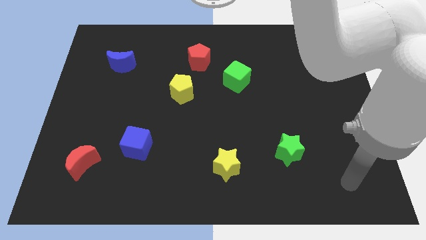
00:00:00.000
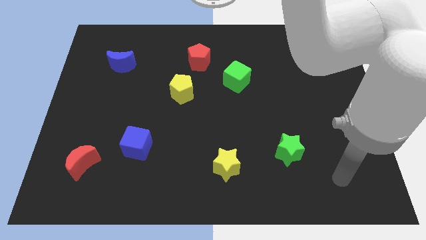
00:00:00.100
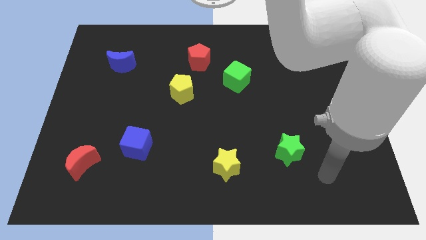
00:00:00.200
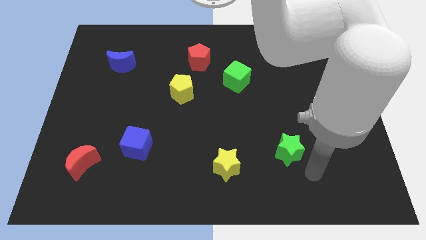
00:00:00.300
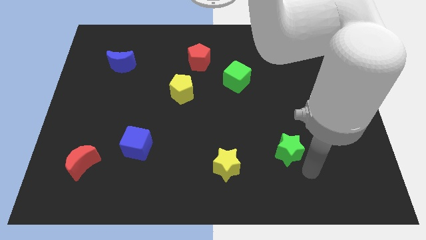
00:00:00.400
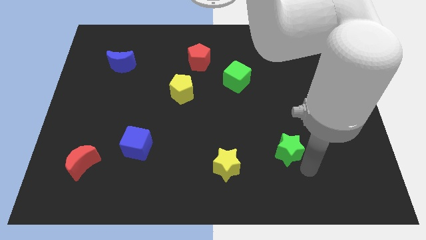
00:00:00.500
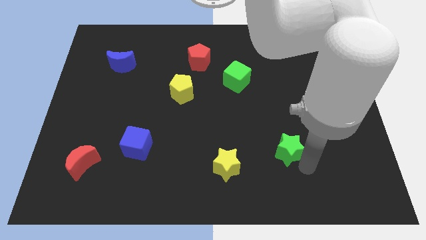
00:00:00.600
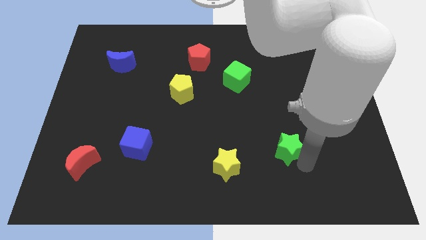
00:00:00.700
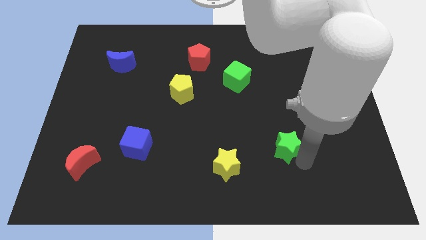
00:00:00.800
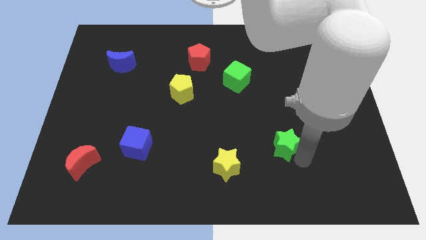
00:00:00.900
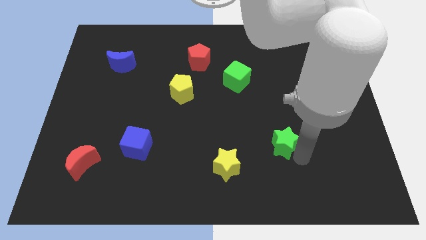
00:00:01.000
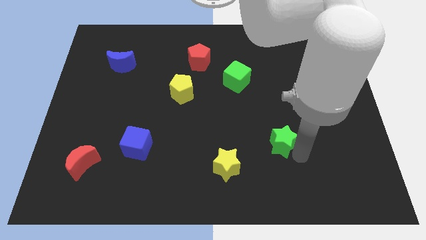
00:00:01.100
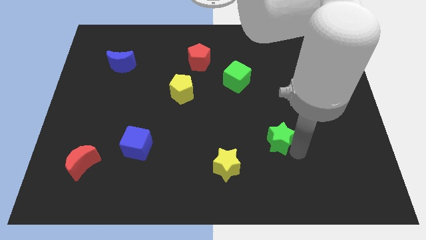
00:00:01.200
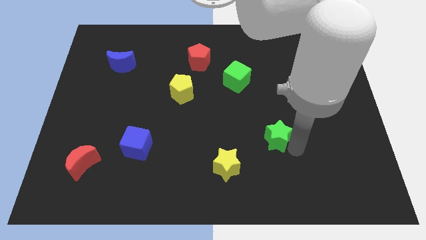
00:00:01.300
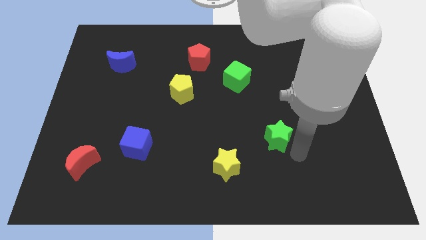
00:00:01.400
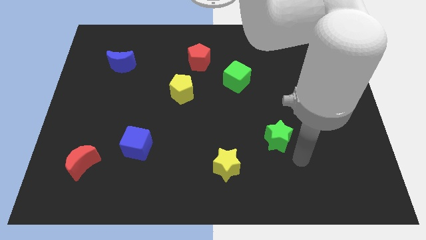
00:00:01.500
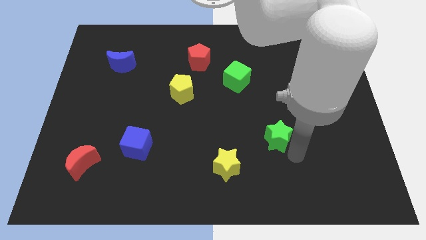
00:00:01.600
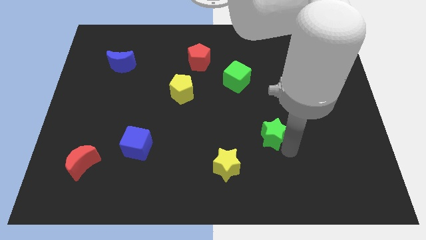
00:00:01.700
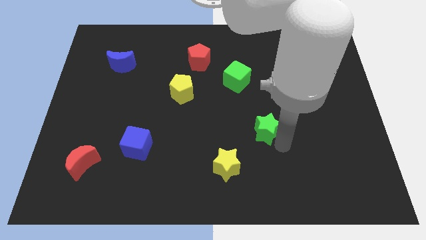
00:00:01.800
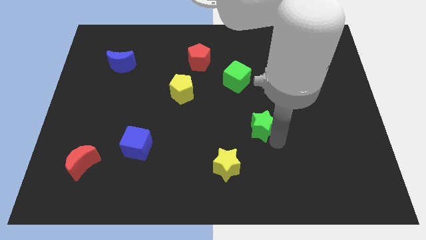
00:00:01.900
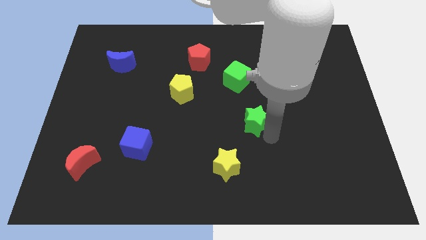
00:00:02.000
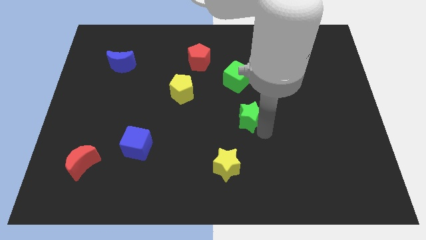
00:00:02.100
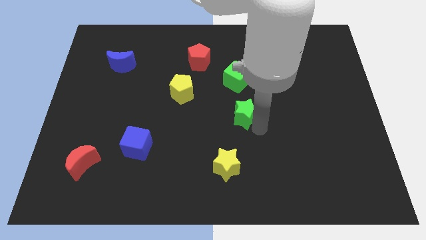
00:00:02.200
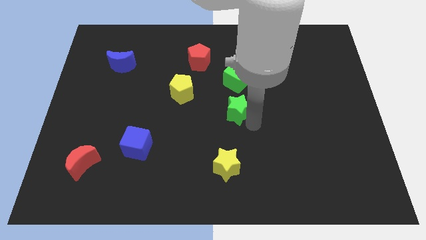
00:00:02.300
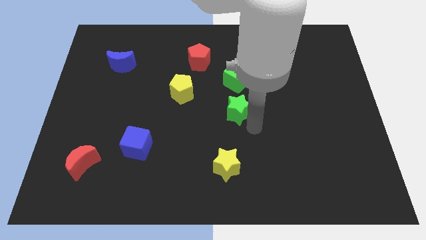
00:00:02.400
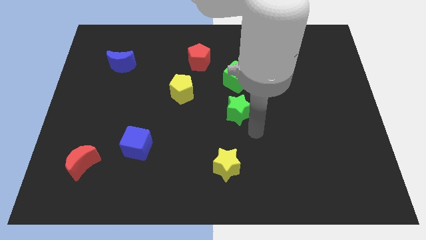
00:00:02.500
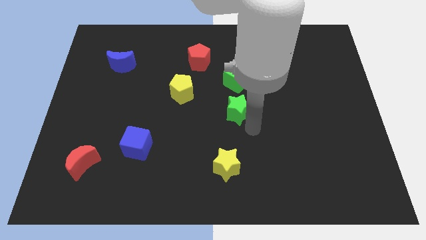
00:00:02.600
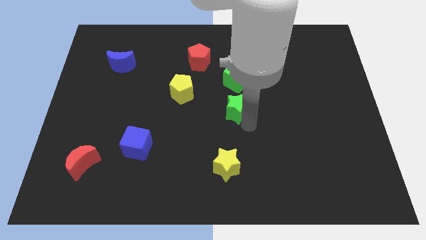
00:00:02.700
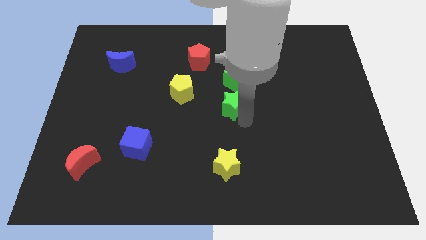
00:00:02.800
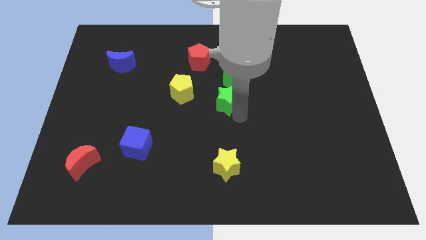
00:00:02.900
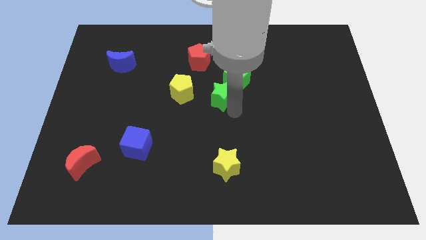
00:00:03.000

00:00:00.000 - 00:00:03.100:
push the green star diagonally up and left

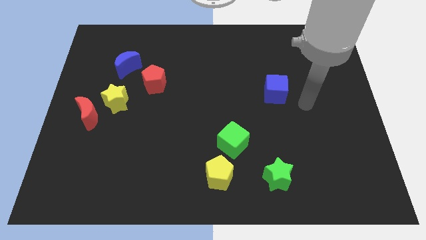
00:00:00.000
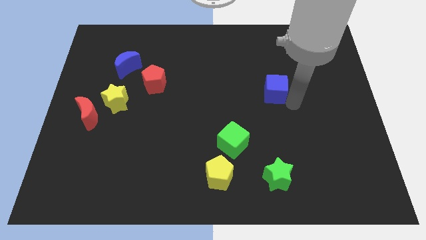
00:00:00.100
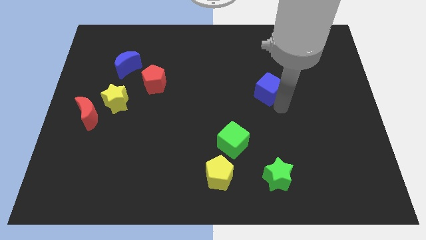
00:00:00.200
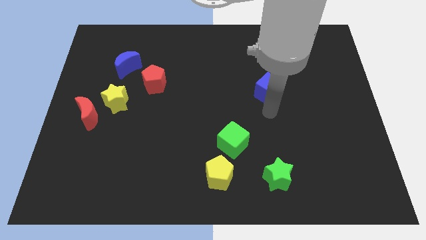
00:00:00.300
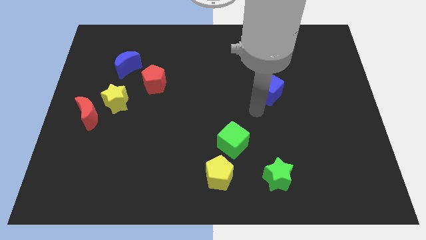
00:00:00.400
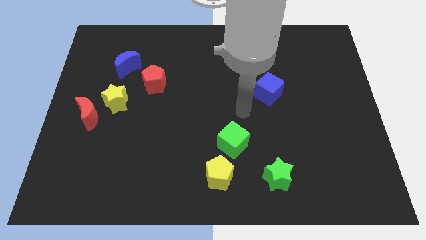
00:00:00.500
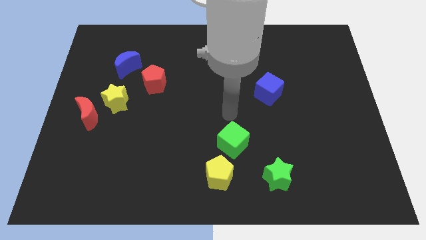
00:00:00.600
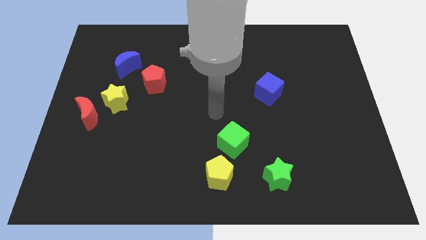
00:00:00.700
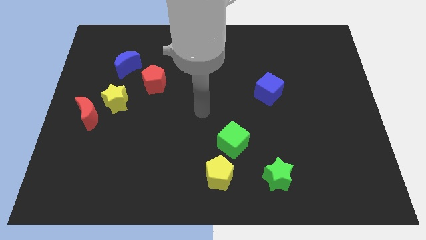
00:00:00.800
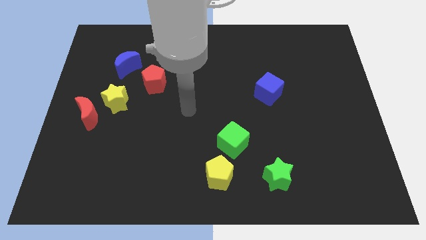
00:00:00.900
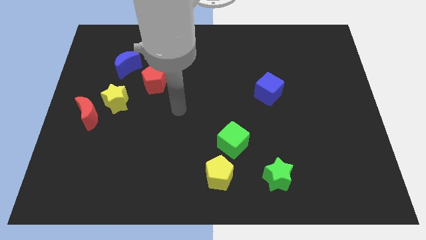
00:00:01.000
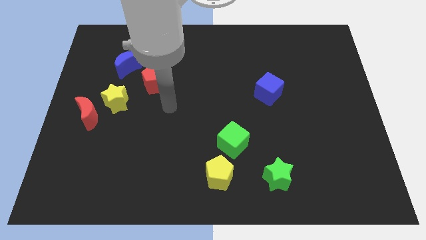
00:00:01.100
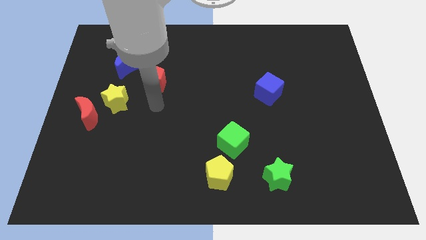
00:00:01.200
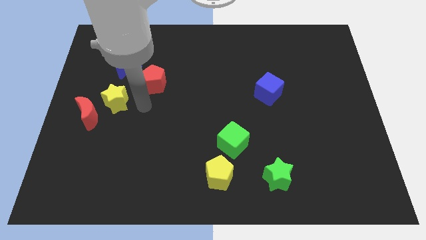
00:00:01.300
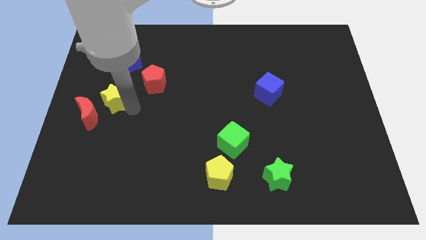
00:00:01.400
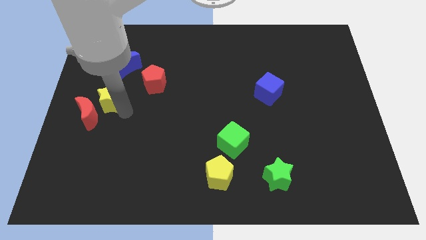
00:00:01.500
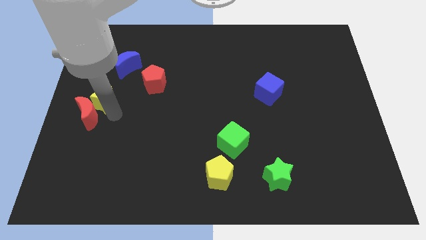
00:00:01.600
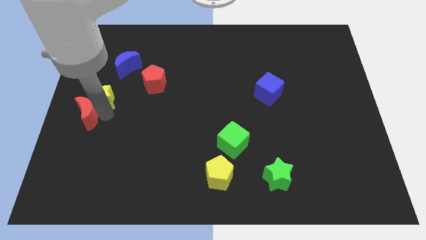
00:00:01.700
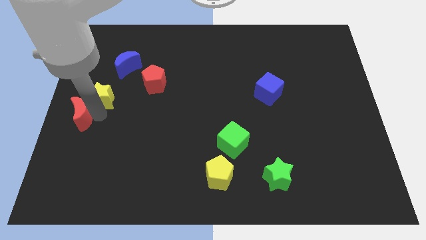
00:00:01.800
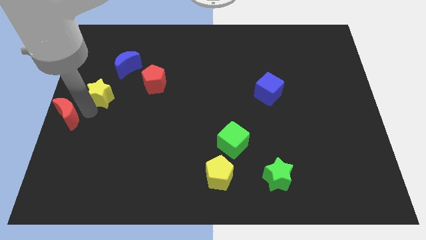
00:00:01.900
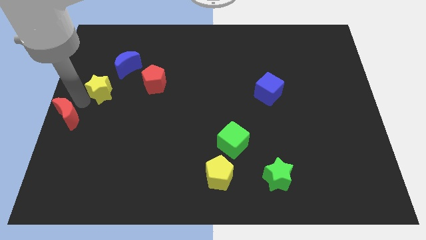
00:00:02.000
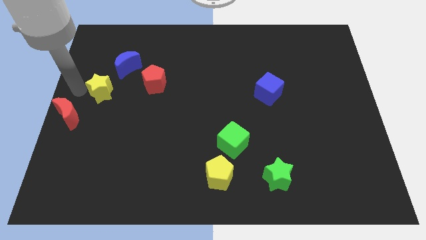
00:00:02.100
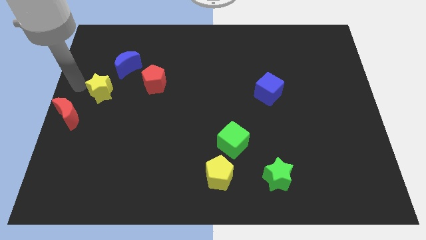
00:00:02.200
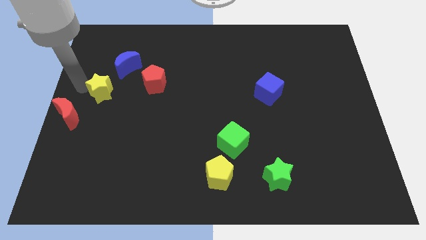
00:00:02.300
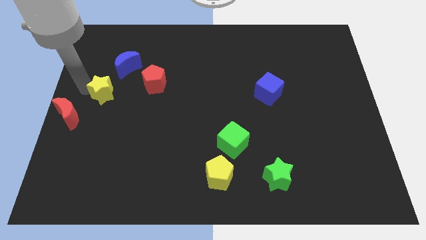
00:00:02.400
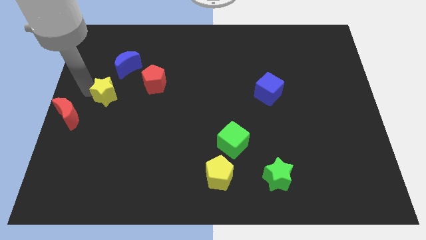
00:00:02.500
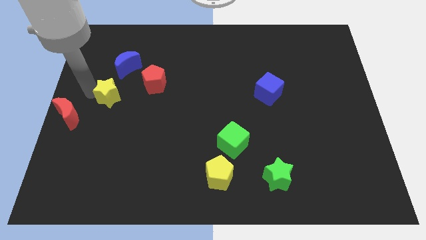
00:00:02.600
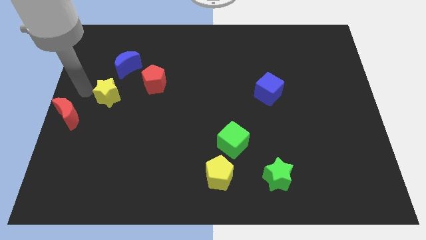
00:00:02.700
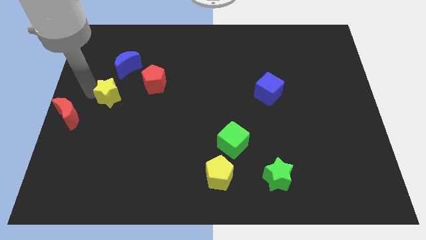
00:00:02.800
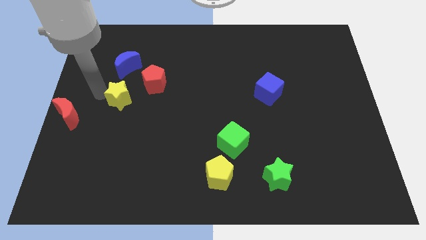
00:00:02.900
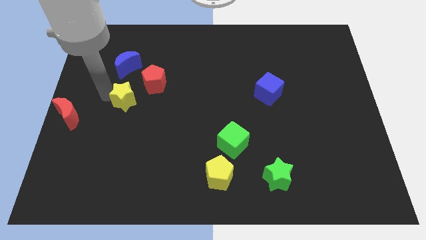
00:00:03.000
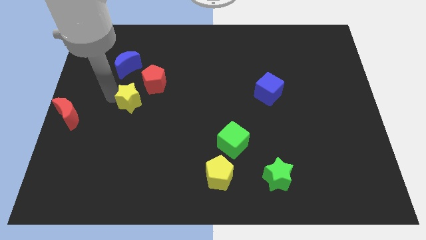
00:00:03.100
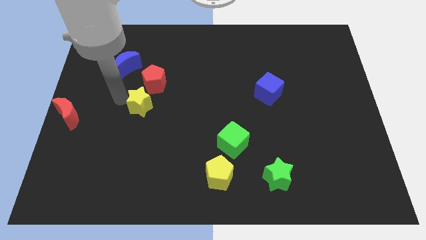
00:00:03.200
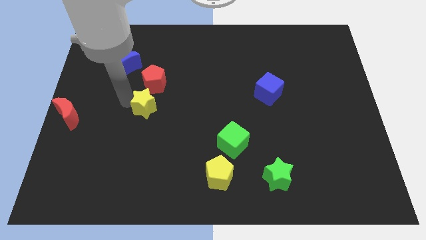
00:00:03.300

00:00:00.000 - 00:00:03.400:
slightly push the yellow star right

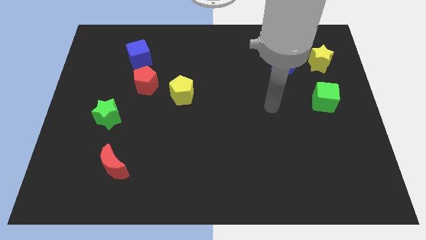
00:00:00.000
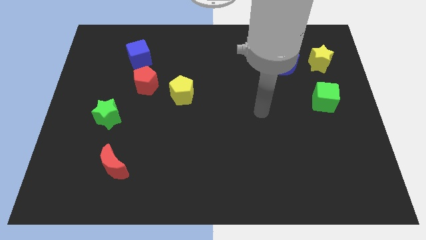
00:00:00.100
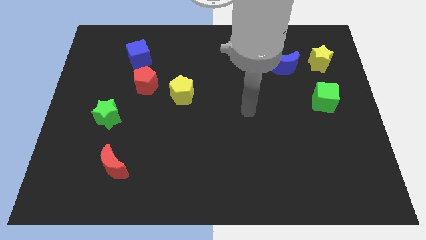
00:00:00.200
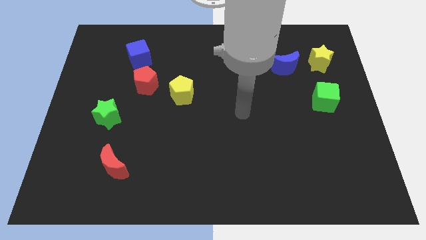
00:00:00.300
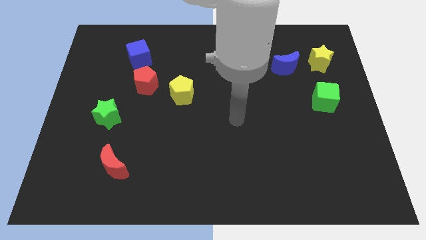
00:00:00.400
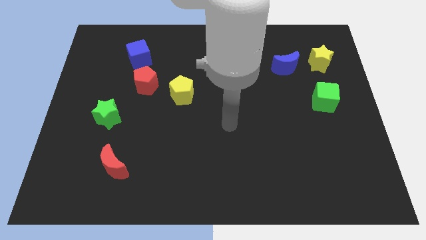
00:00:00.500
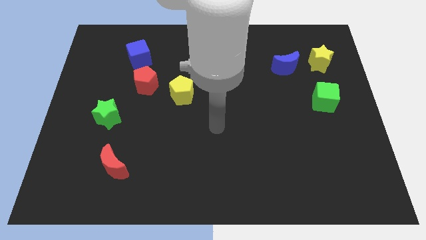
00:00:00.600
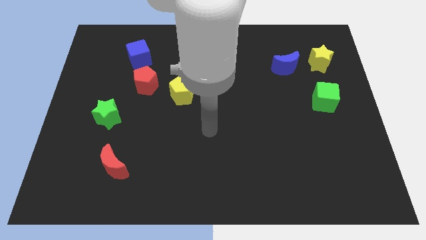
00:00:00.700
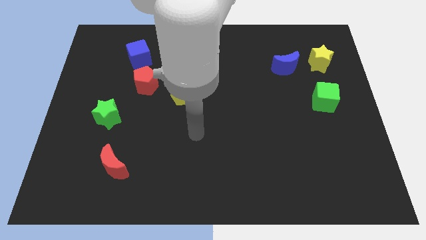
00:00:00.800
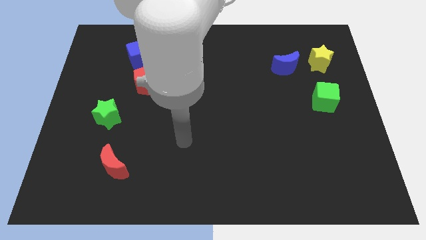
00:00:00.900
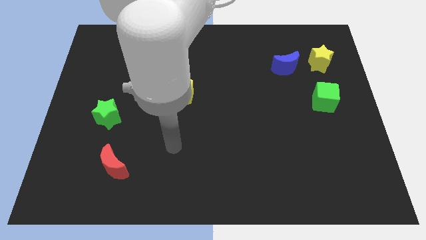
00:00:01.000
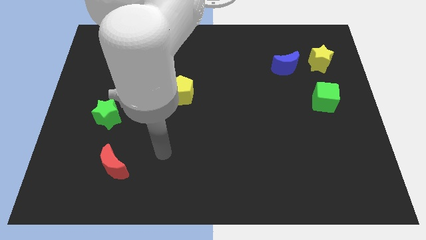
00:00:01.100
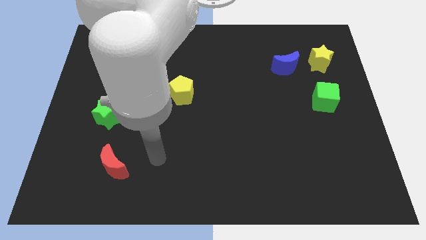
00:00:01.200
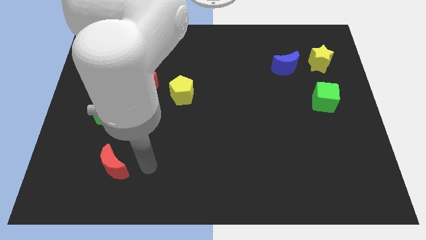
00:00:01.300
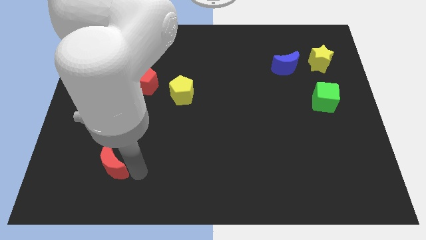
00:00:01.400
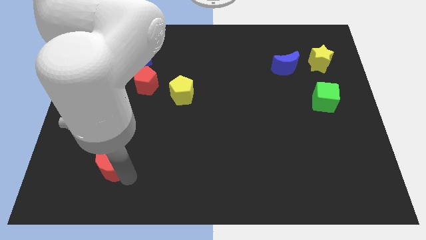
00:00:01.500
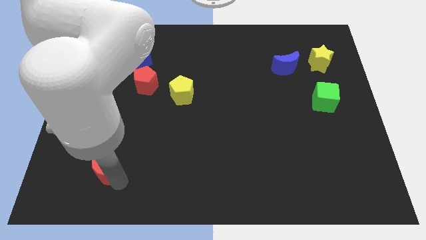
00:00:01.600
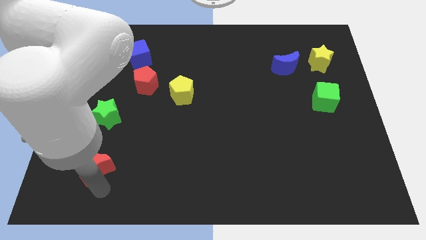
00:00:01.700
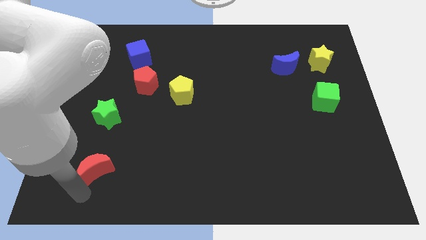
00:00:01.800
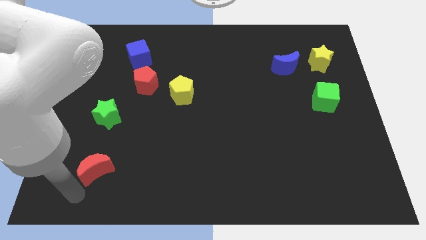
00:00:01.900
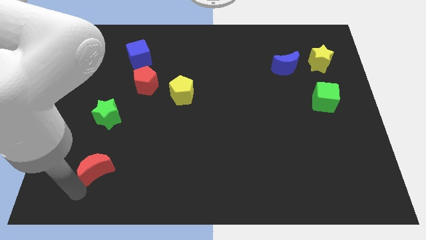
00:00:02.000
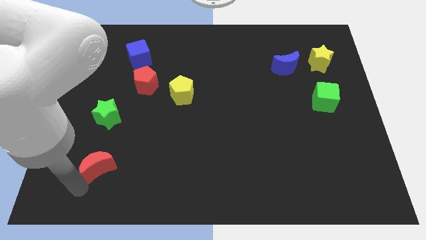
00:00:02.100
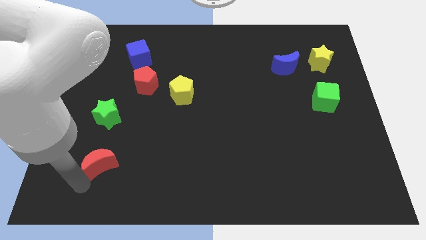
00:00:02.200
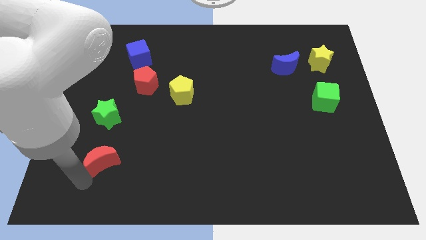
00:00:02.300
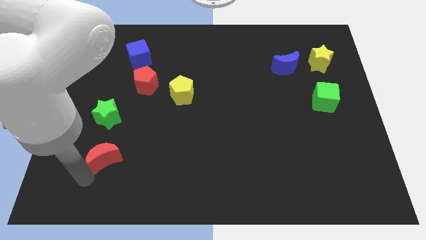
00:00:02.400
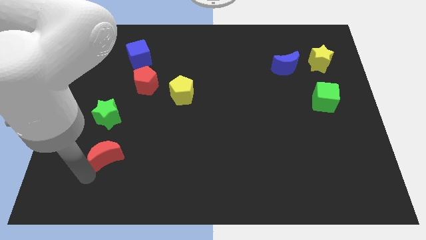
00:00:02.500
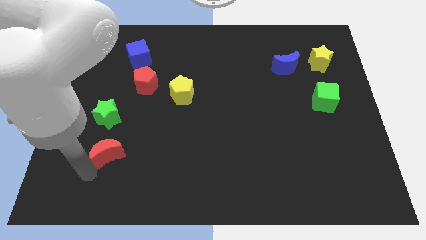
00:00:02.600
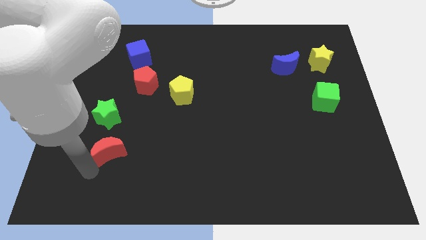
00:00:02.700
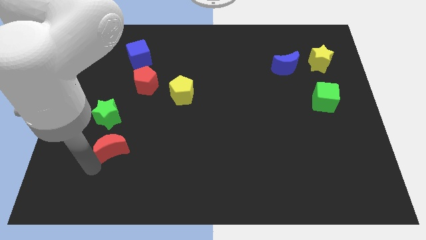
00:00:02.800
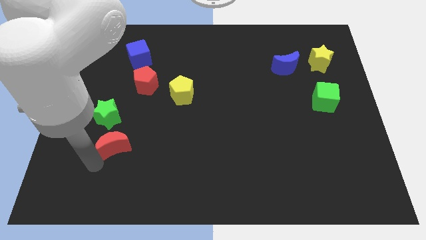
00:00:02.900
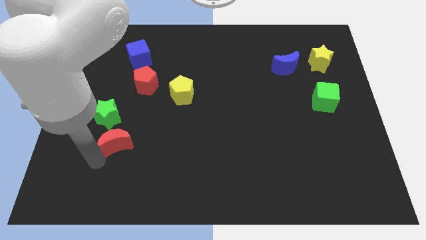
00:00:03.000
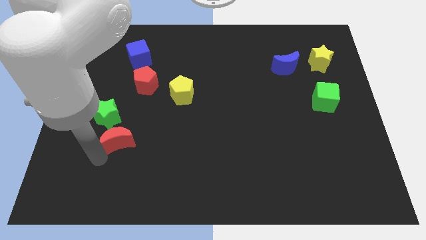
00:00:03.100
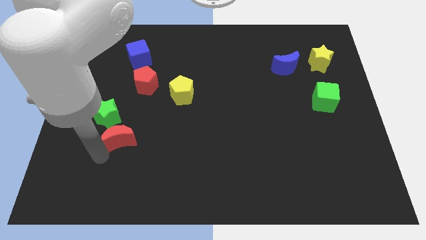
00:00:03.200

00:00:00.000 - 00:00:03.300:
slightly push the red moon up
